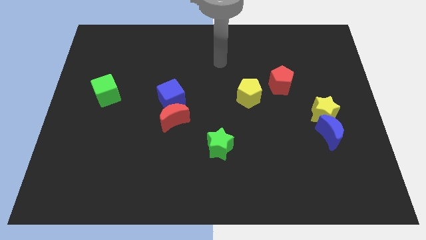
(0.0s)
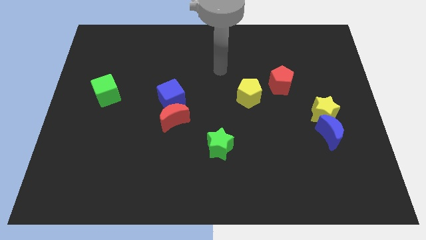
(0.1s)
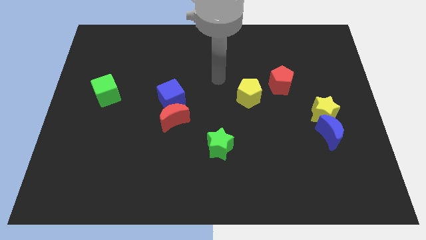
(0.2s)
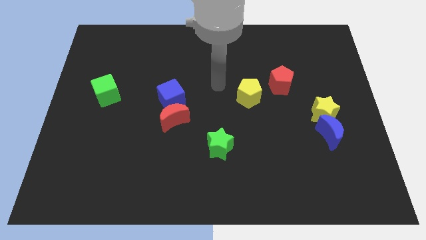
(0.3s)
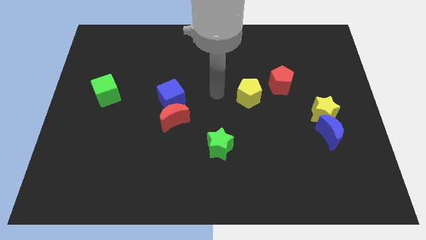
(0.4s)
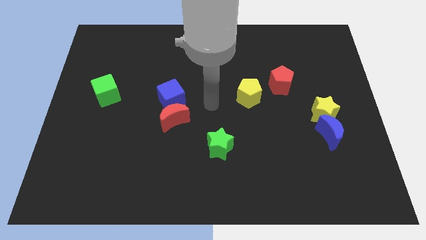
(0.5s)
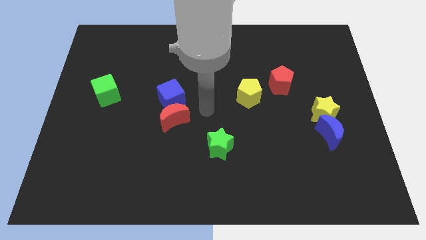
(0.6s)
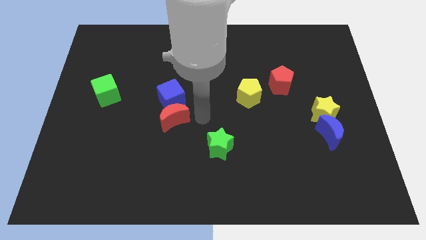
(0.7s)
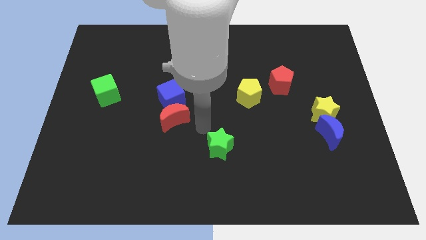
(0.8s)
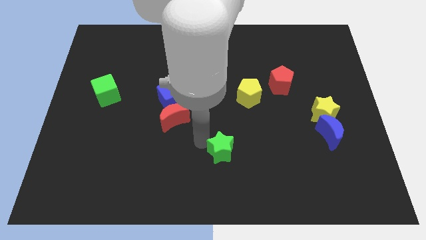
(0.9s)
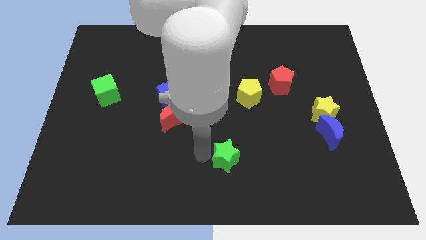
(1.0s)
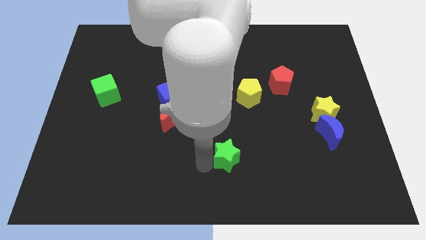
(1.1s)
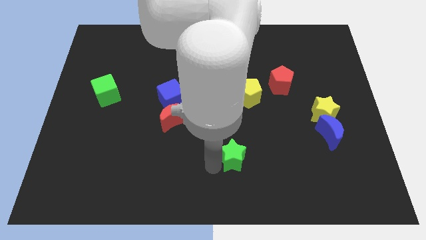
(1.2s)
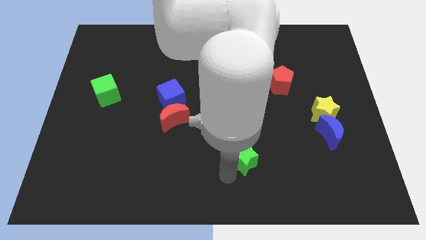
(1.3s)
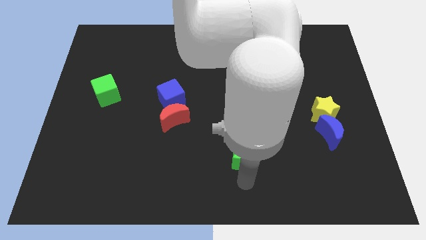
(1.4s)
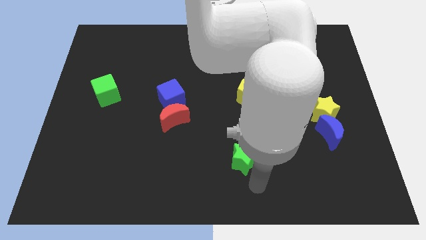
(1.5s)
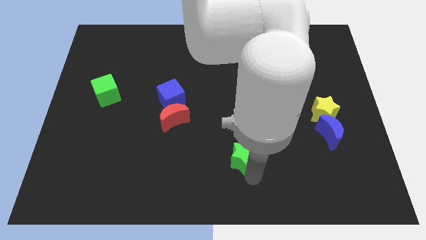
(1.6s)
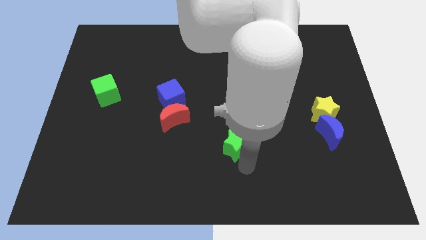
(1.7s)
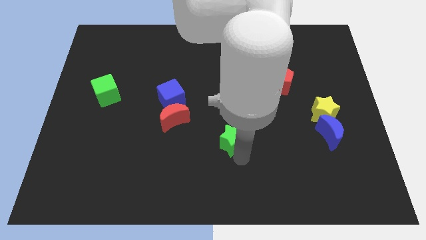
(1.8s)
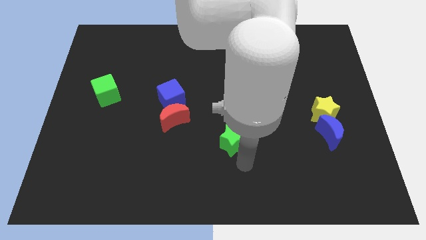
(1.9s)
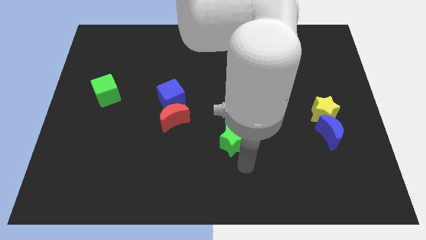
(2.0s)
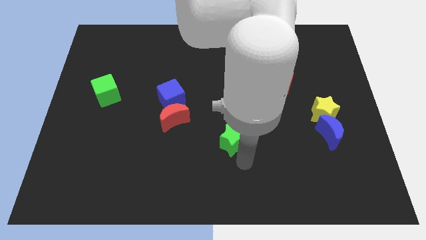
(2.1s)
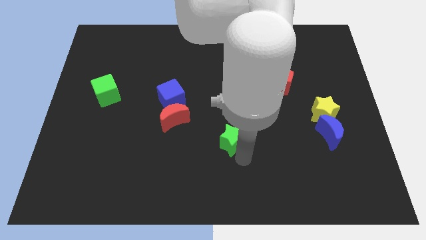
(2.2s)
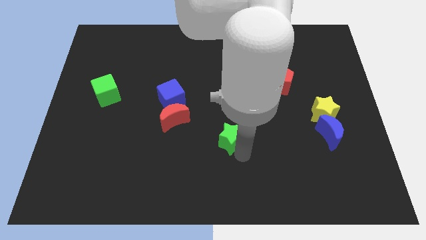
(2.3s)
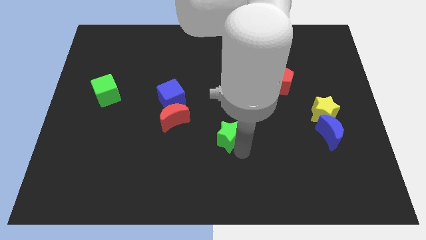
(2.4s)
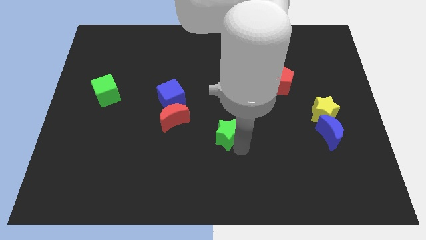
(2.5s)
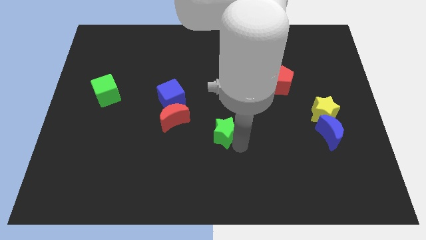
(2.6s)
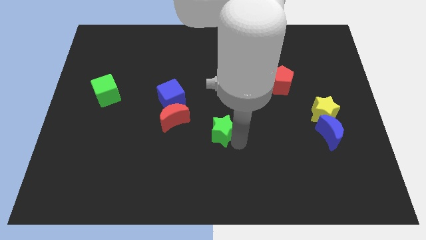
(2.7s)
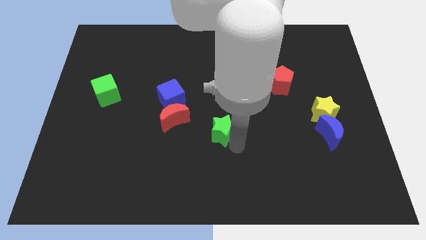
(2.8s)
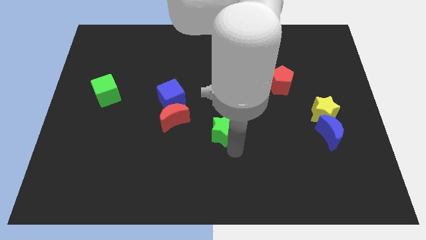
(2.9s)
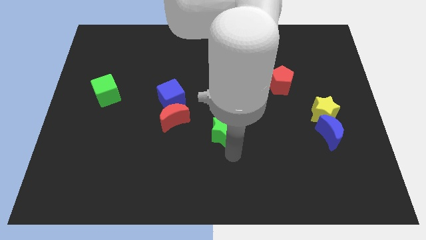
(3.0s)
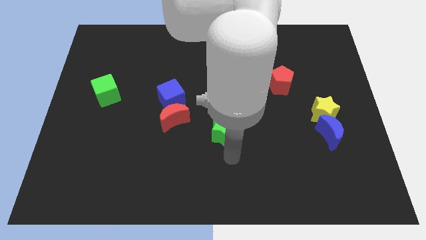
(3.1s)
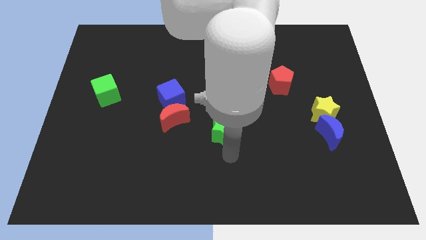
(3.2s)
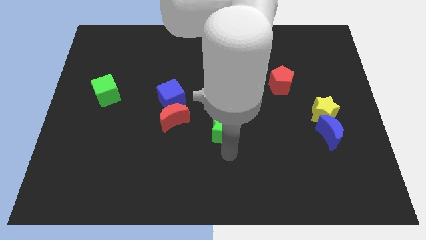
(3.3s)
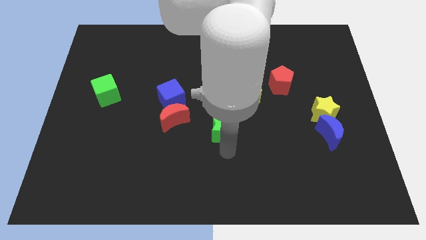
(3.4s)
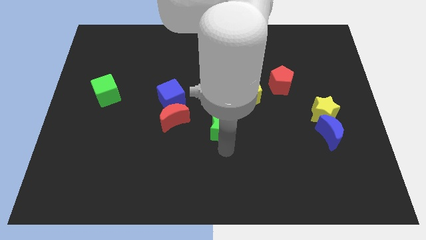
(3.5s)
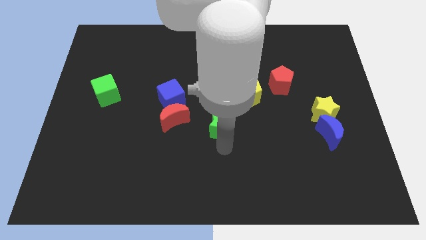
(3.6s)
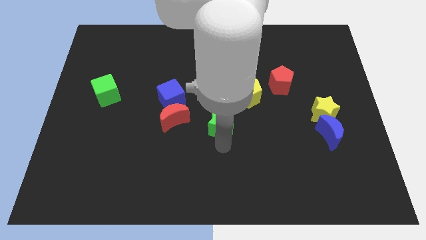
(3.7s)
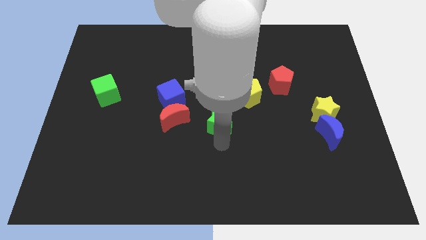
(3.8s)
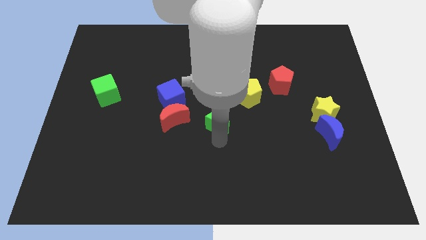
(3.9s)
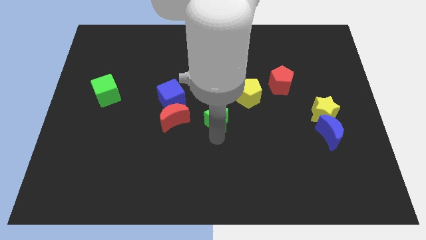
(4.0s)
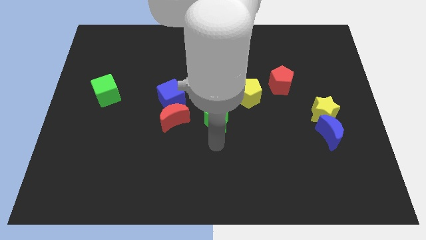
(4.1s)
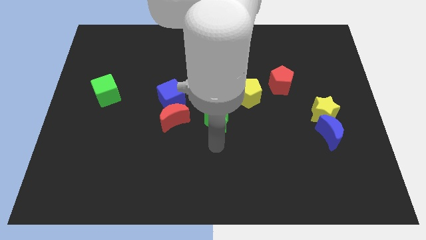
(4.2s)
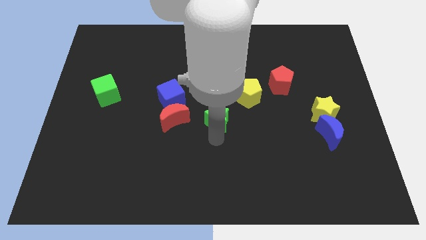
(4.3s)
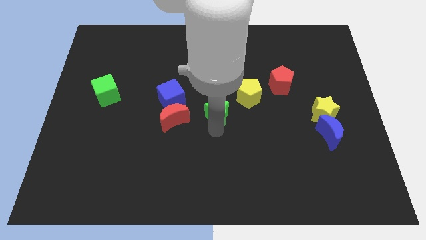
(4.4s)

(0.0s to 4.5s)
slightly push the green star upwards

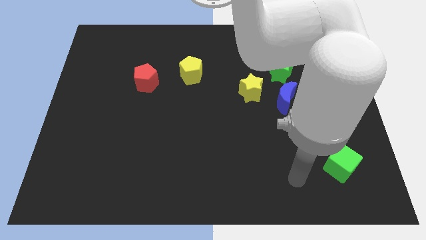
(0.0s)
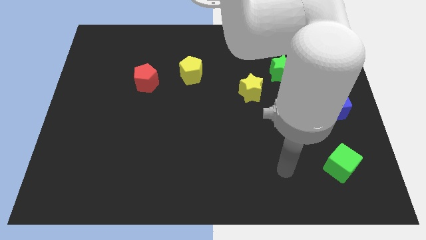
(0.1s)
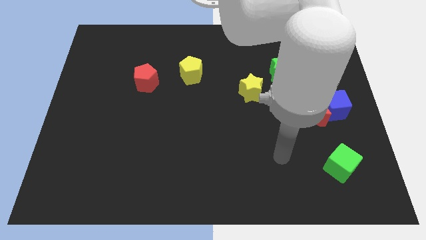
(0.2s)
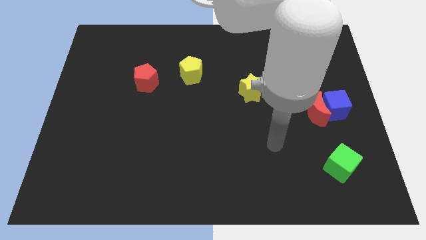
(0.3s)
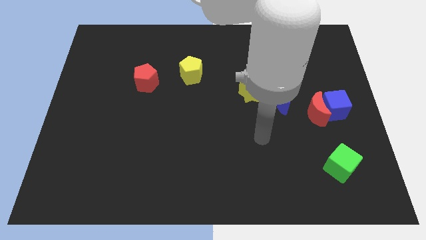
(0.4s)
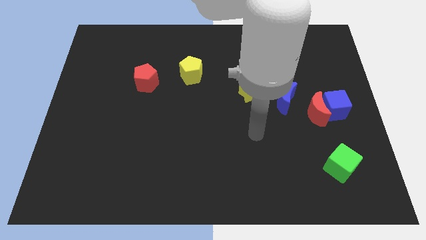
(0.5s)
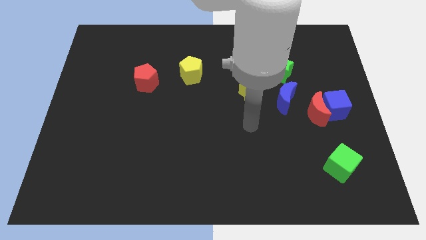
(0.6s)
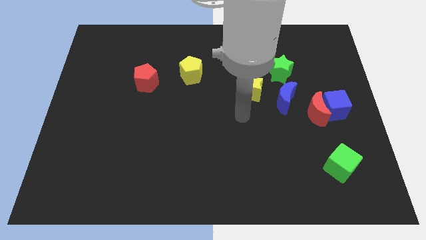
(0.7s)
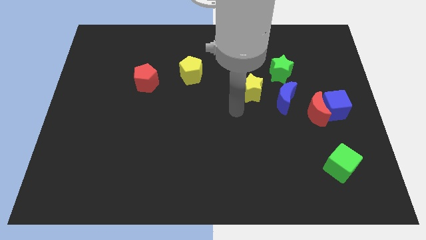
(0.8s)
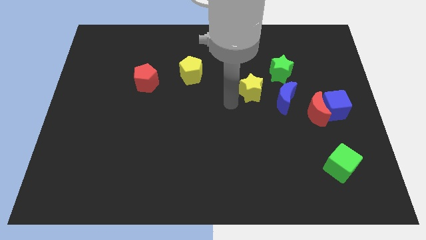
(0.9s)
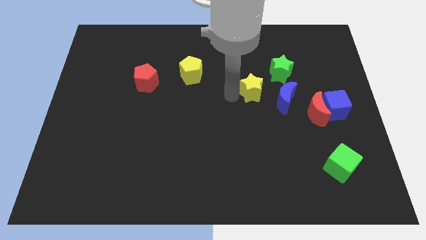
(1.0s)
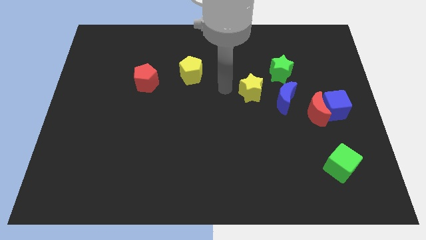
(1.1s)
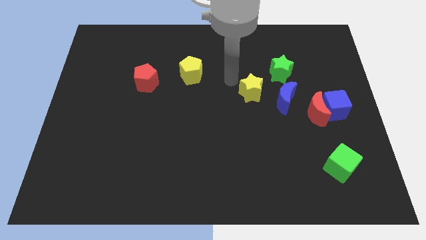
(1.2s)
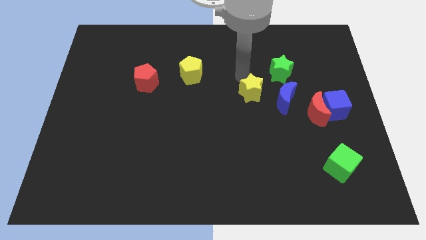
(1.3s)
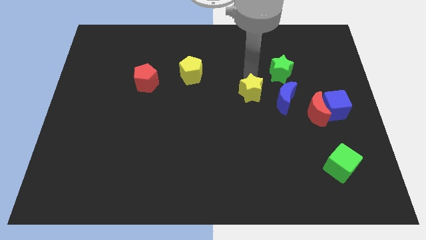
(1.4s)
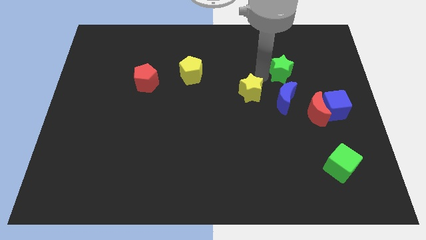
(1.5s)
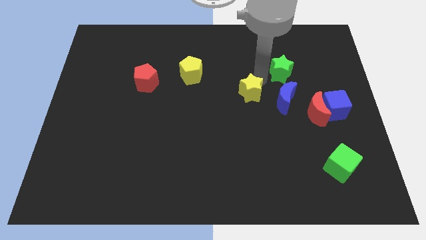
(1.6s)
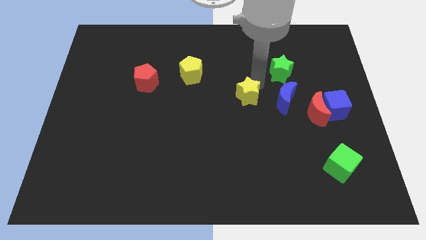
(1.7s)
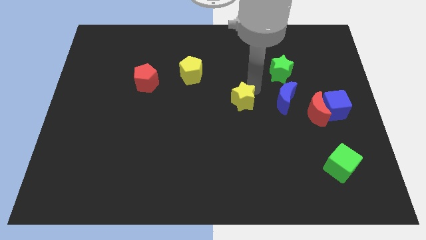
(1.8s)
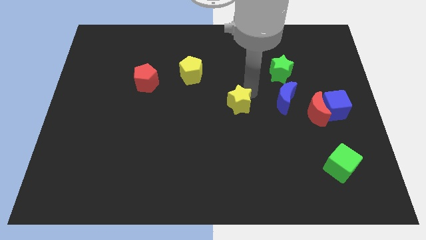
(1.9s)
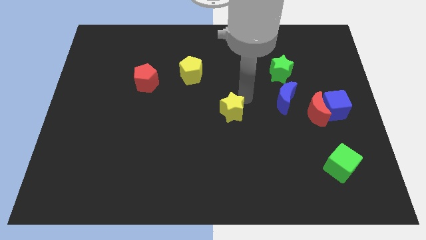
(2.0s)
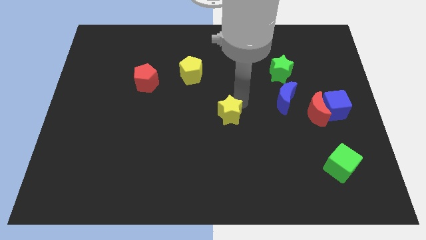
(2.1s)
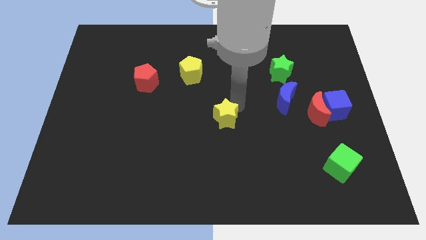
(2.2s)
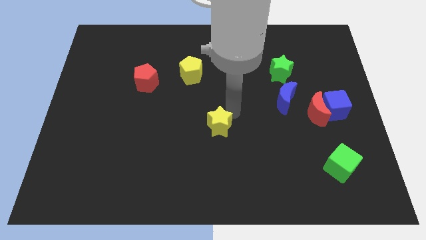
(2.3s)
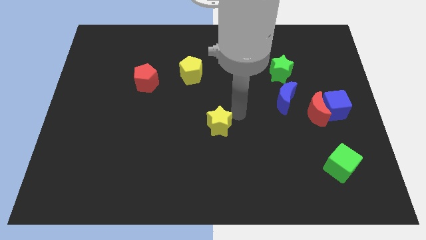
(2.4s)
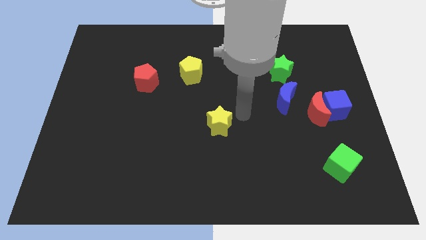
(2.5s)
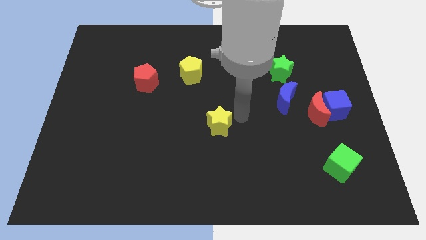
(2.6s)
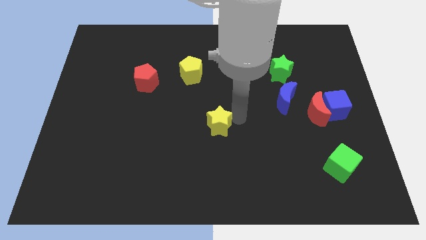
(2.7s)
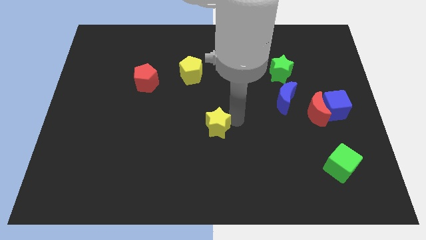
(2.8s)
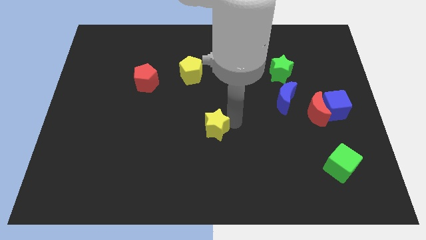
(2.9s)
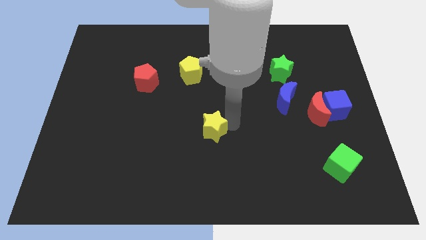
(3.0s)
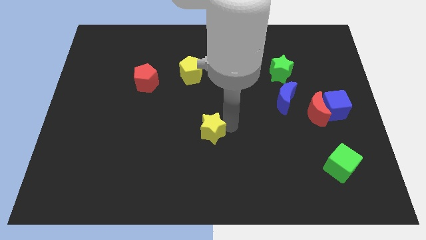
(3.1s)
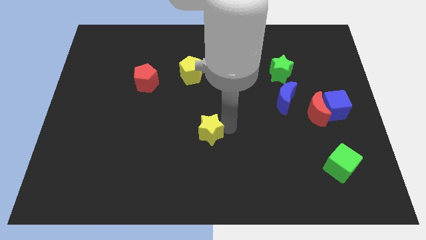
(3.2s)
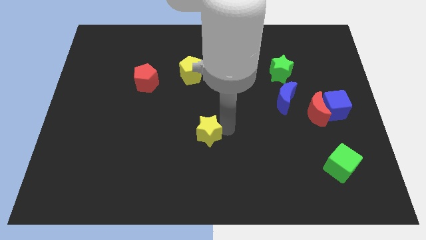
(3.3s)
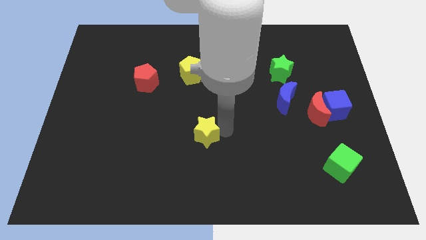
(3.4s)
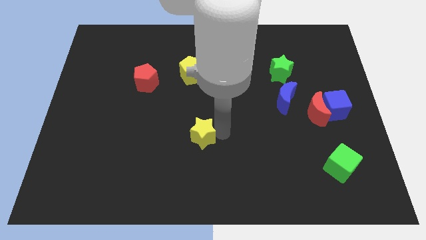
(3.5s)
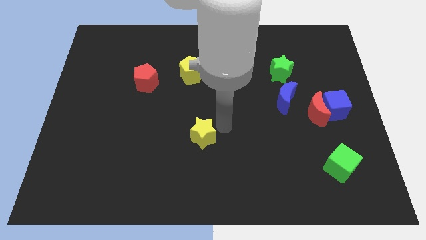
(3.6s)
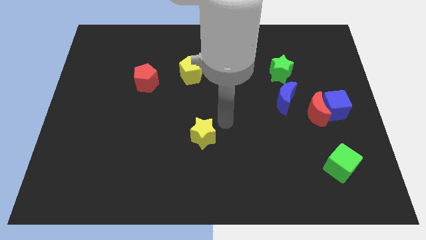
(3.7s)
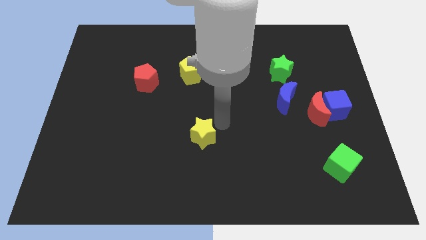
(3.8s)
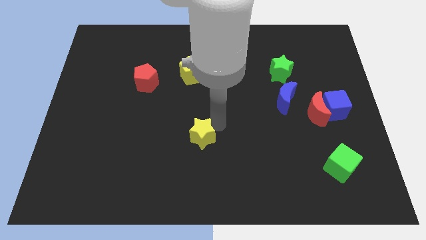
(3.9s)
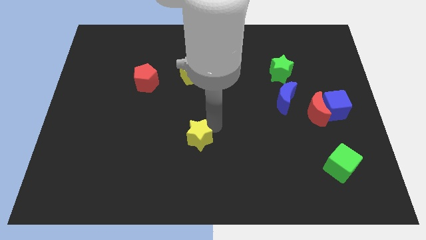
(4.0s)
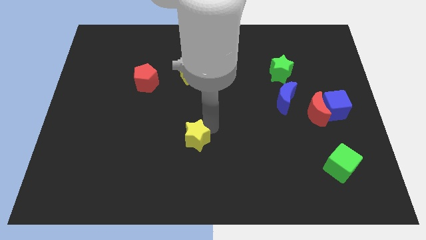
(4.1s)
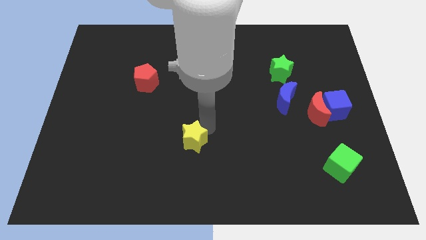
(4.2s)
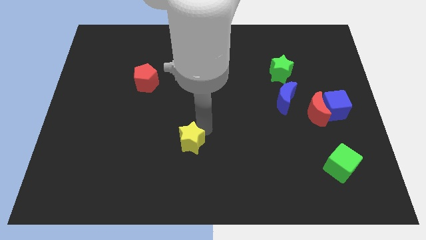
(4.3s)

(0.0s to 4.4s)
push the yellow star down and to the left diagonally

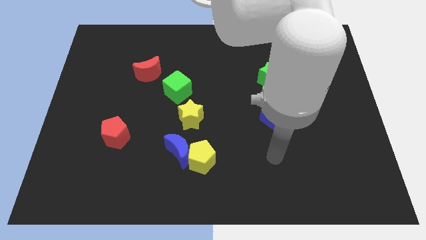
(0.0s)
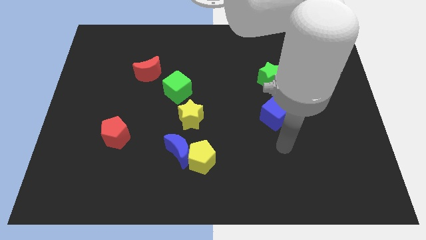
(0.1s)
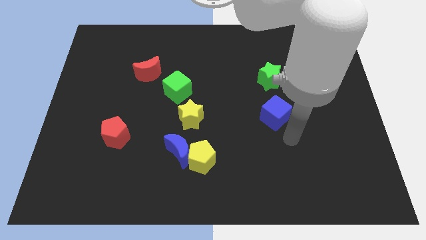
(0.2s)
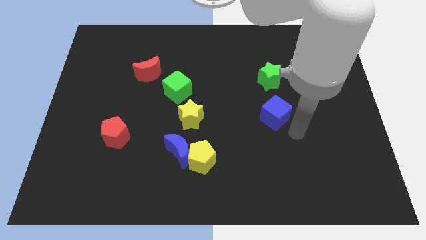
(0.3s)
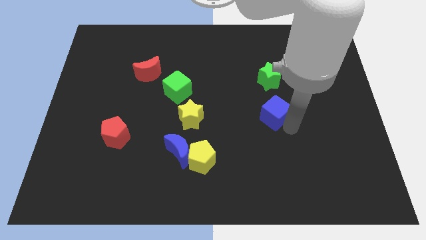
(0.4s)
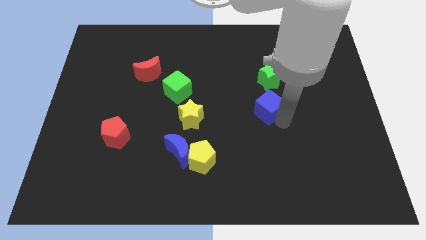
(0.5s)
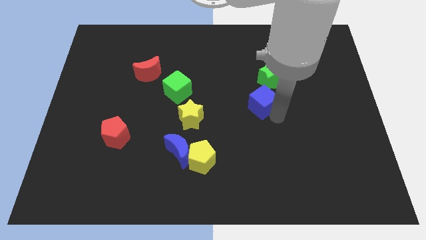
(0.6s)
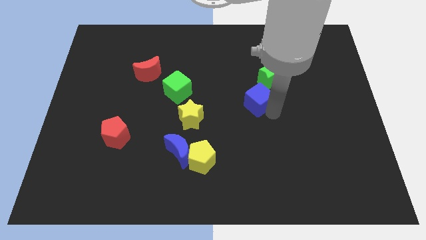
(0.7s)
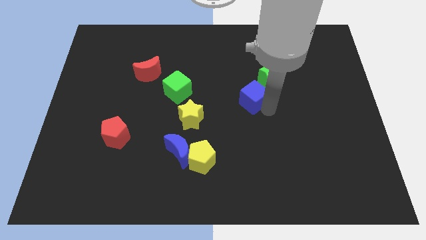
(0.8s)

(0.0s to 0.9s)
slide the blue cube a little up and then to the left
